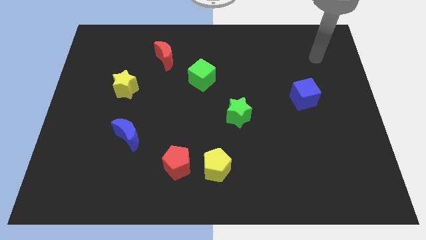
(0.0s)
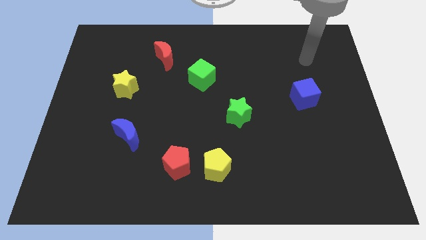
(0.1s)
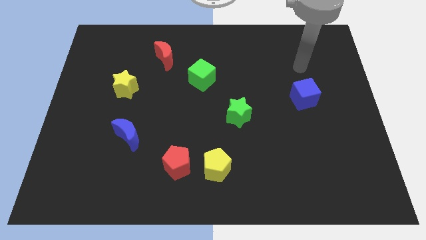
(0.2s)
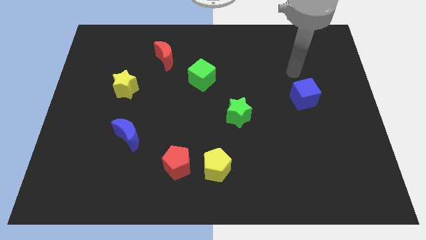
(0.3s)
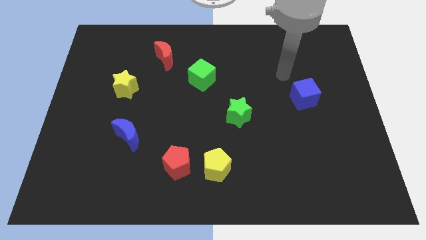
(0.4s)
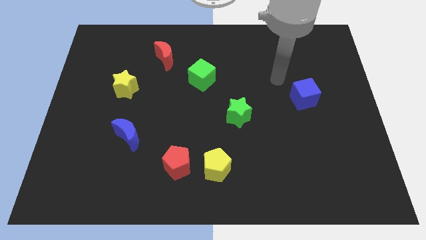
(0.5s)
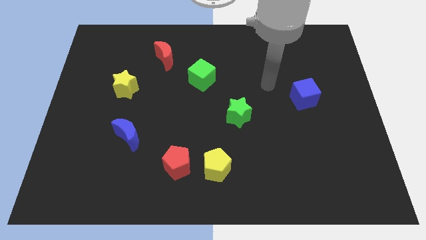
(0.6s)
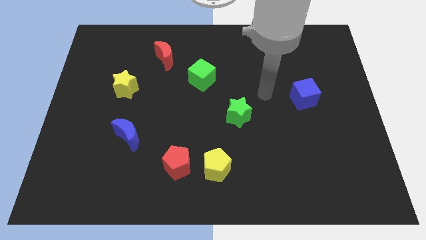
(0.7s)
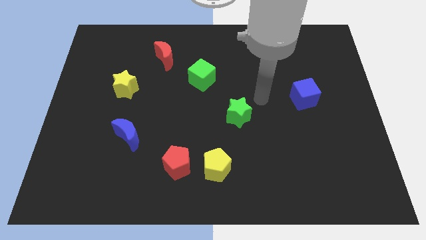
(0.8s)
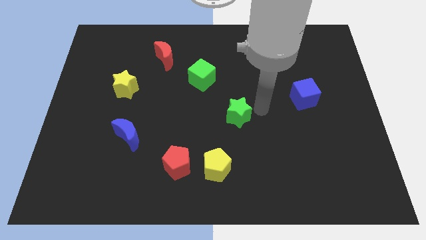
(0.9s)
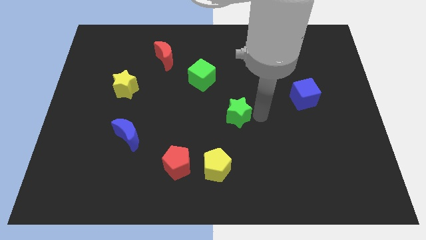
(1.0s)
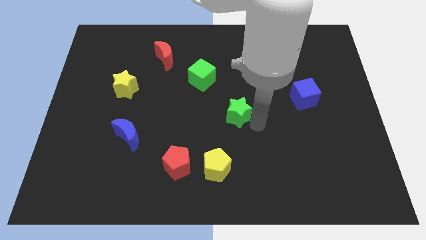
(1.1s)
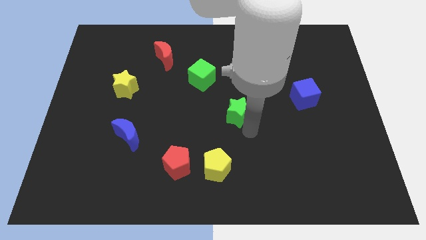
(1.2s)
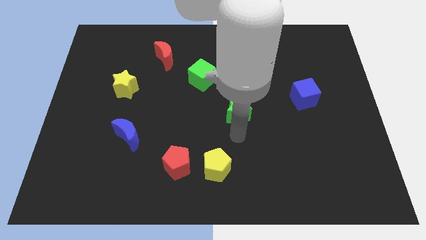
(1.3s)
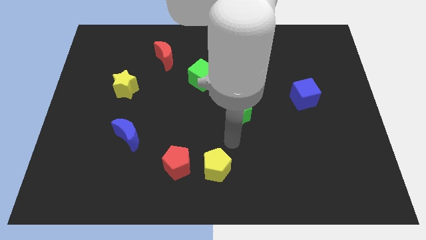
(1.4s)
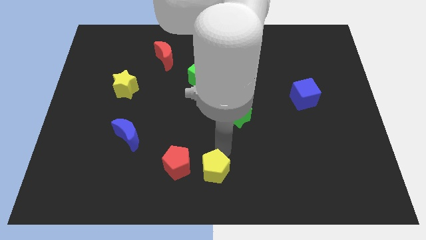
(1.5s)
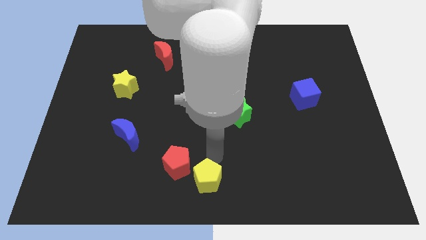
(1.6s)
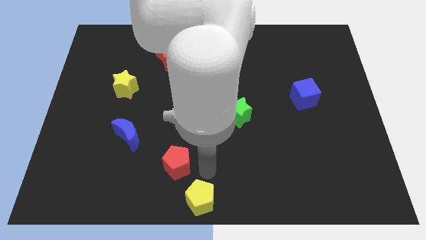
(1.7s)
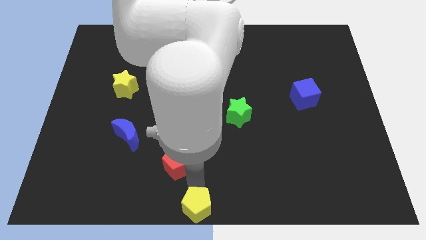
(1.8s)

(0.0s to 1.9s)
separate the red pentagon from the yellow pentagon

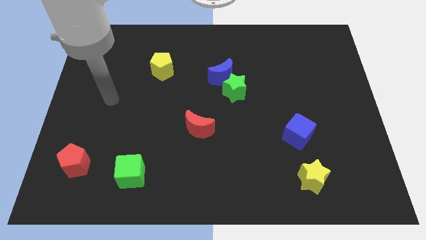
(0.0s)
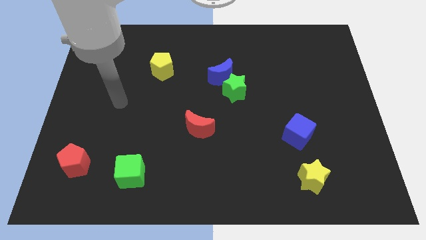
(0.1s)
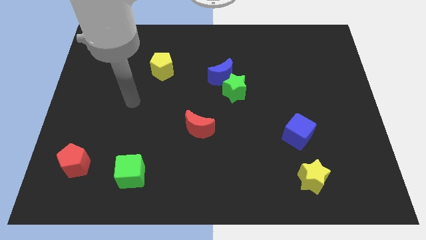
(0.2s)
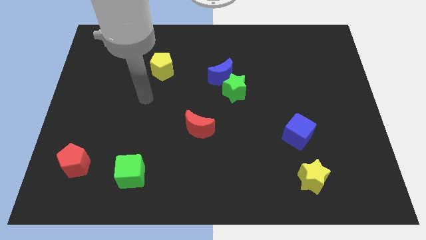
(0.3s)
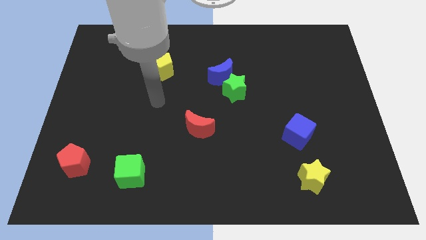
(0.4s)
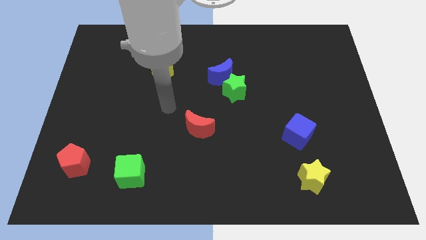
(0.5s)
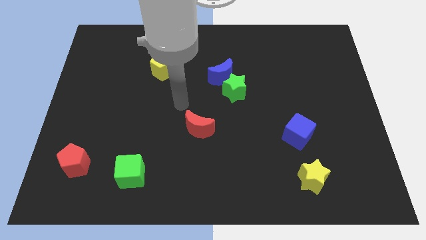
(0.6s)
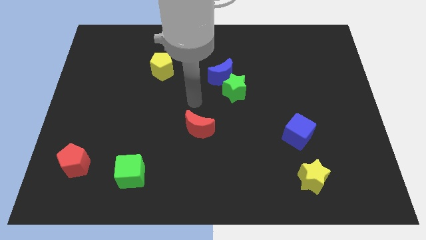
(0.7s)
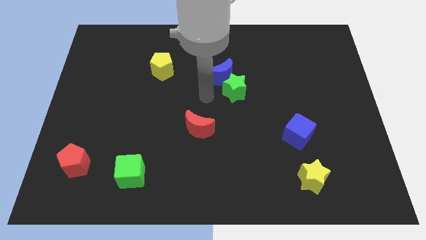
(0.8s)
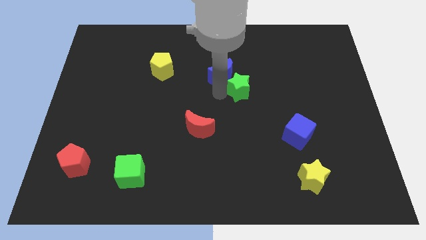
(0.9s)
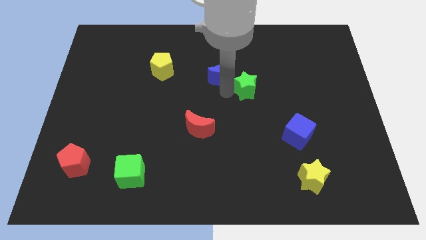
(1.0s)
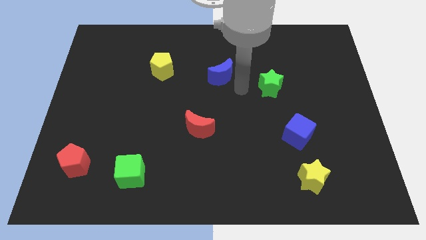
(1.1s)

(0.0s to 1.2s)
move the blue moon away from the green star

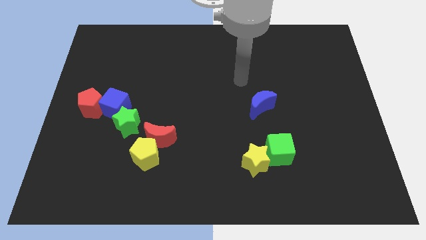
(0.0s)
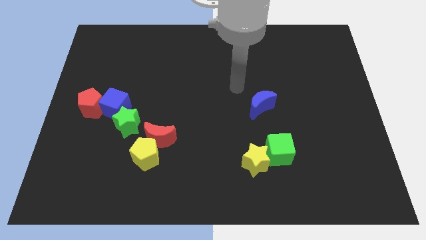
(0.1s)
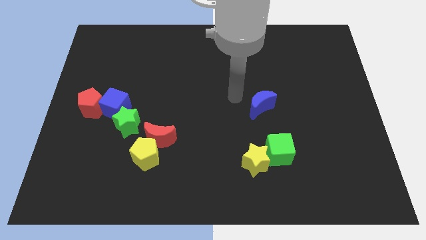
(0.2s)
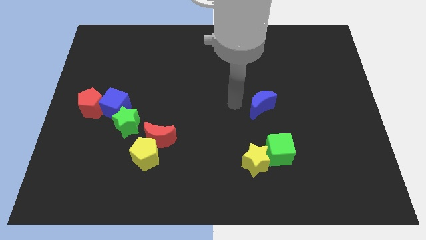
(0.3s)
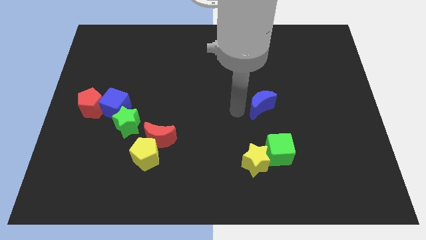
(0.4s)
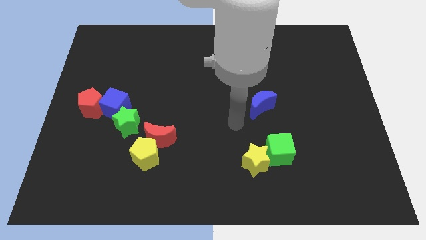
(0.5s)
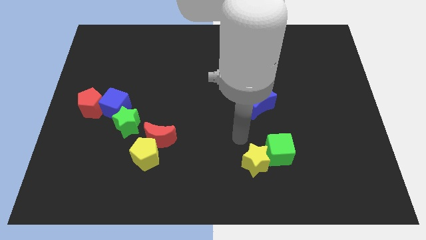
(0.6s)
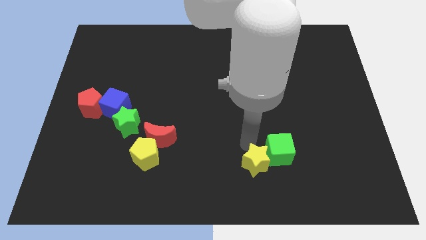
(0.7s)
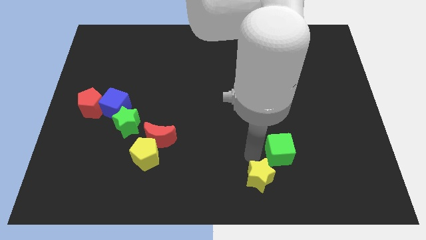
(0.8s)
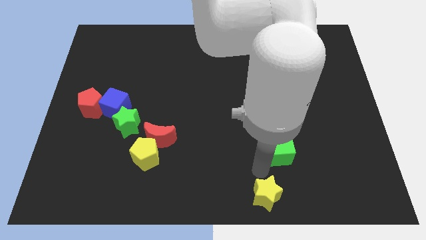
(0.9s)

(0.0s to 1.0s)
pull the green cube apart from the yellow star

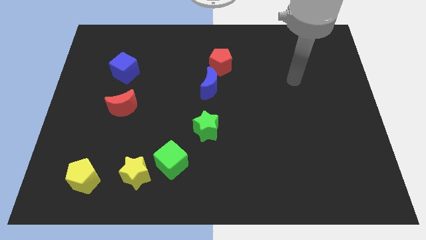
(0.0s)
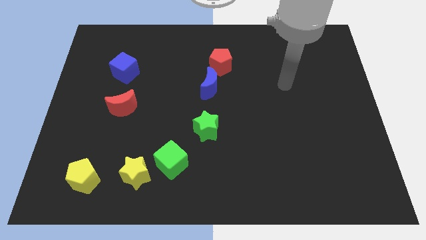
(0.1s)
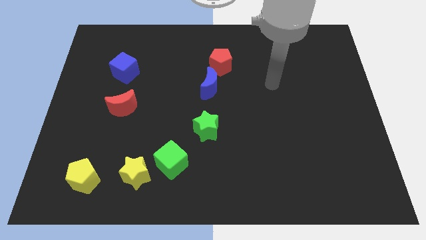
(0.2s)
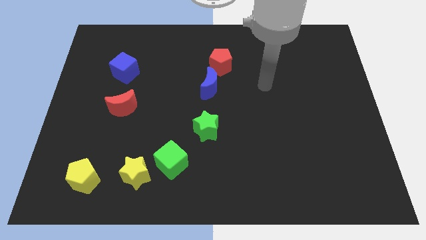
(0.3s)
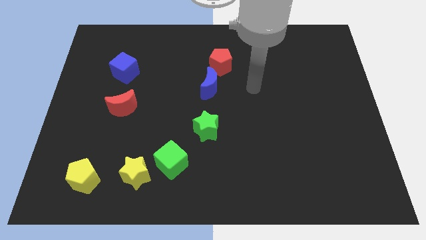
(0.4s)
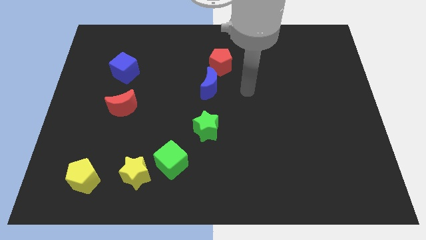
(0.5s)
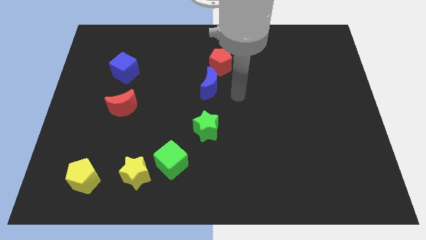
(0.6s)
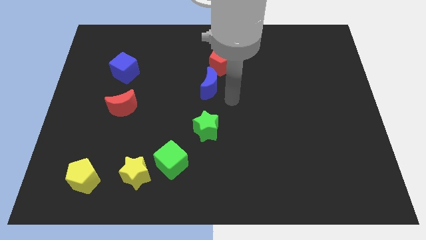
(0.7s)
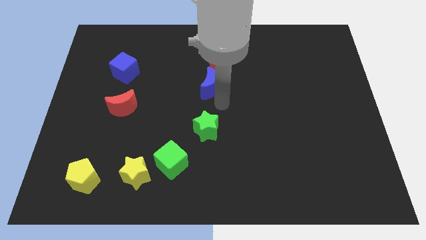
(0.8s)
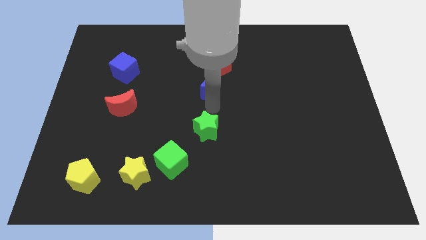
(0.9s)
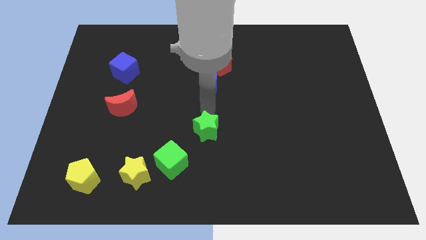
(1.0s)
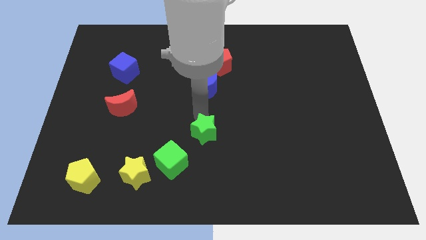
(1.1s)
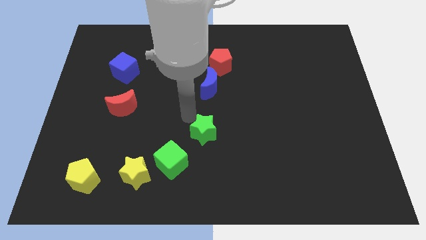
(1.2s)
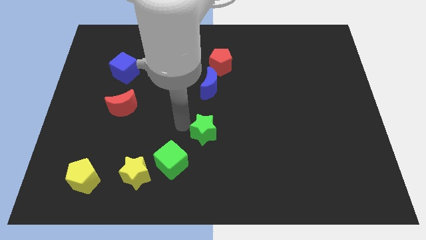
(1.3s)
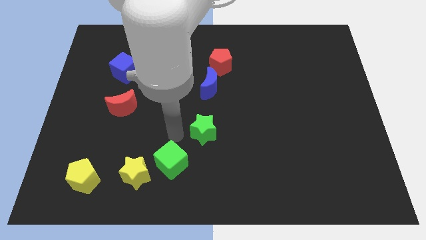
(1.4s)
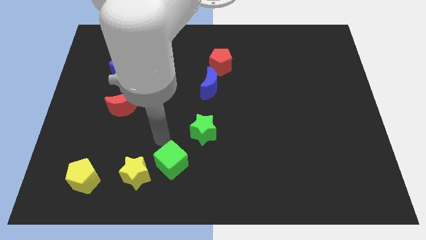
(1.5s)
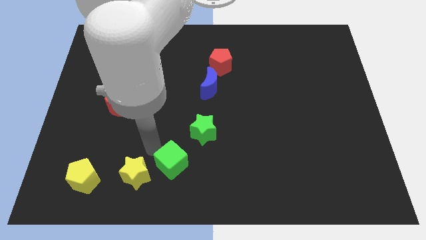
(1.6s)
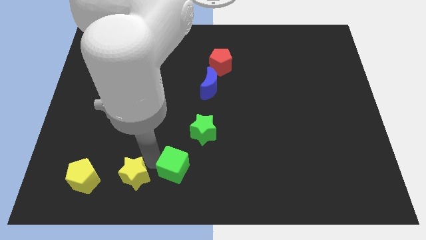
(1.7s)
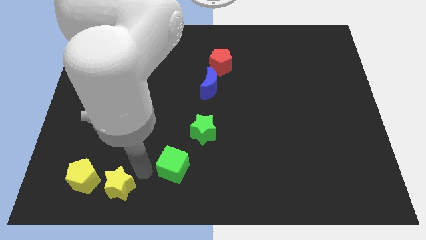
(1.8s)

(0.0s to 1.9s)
move the green cube away from the yellow star

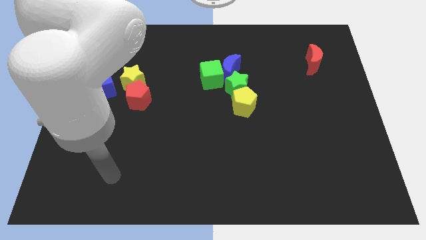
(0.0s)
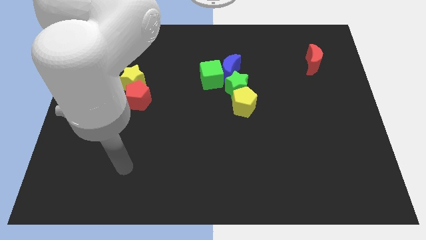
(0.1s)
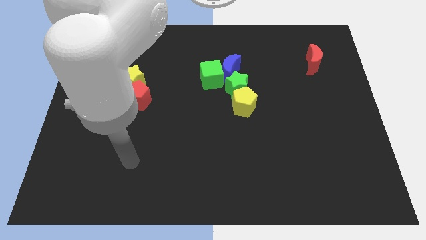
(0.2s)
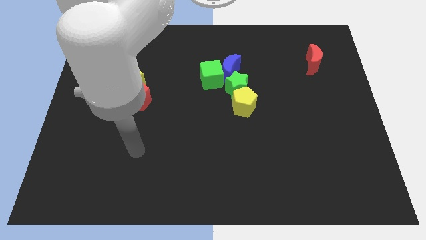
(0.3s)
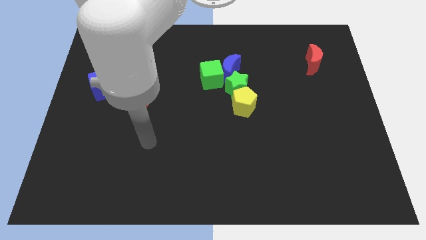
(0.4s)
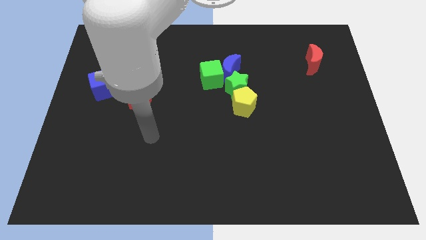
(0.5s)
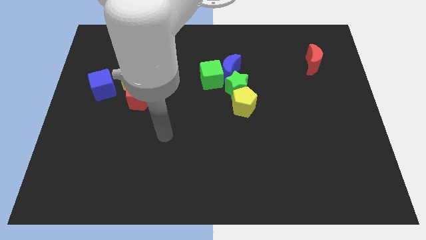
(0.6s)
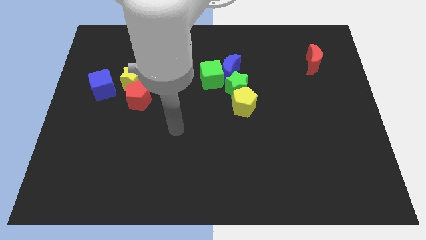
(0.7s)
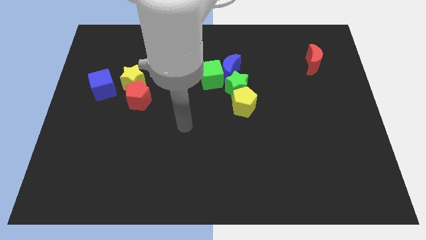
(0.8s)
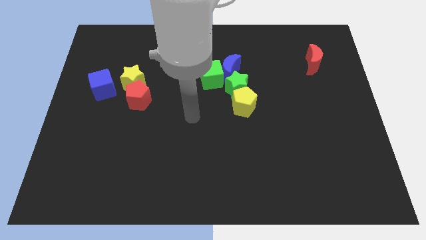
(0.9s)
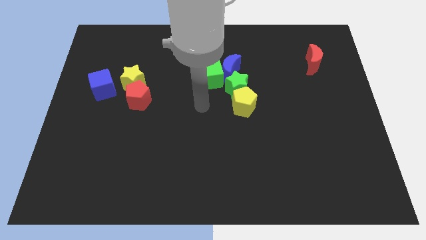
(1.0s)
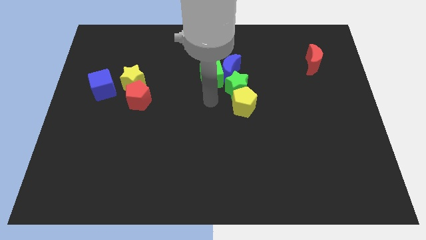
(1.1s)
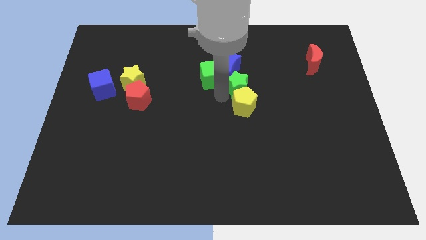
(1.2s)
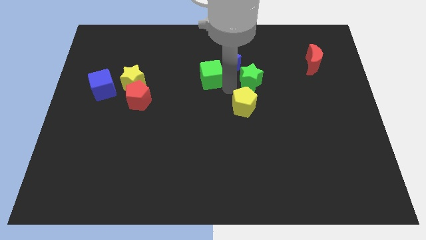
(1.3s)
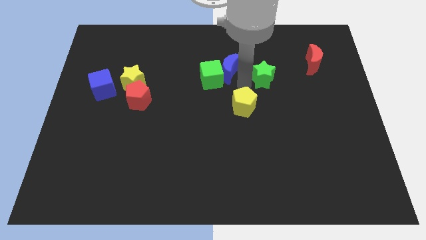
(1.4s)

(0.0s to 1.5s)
move the yellow pentagon away from the green star

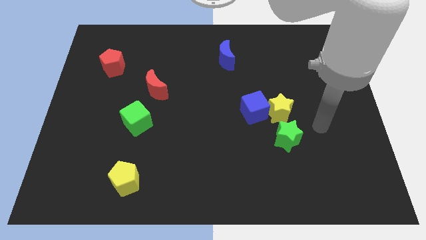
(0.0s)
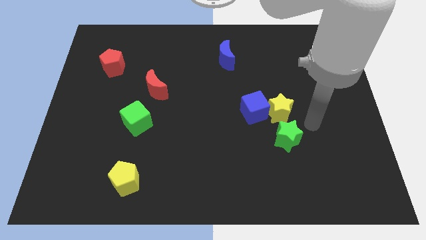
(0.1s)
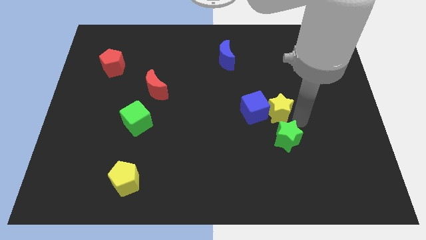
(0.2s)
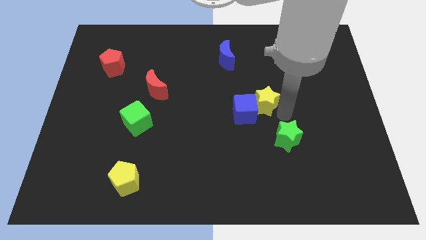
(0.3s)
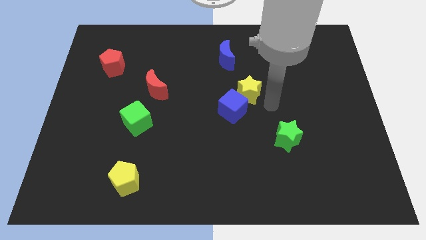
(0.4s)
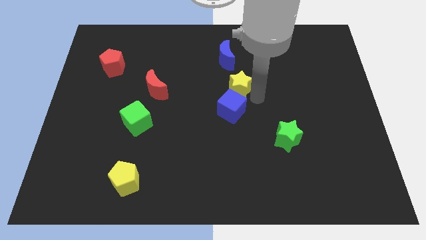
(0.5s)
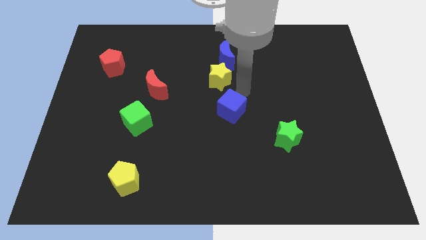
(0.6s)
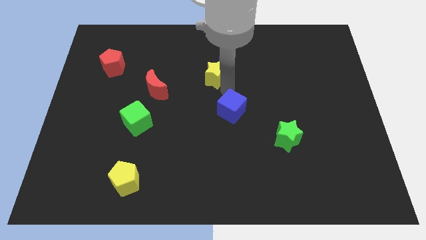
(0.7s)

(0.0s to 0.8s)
pull the blue cube apart from the yellow star

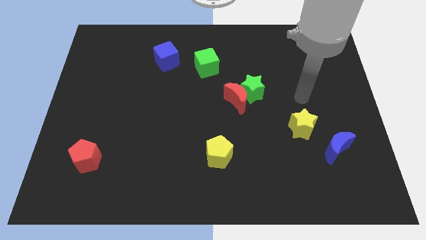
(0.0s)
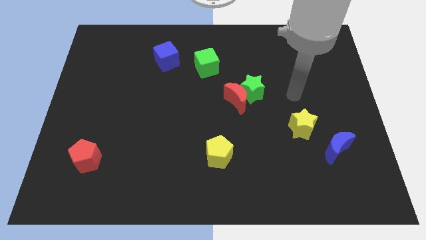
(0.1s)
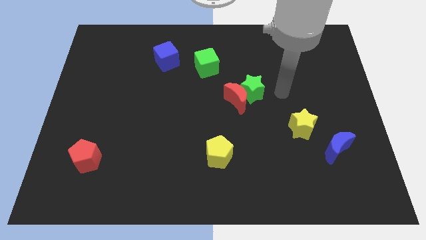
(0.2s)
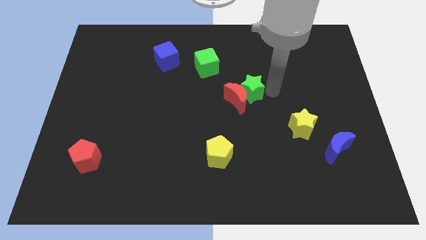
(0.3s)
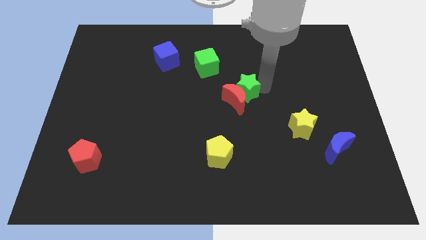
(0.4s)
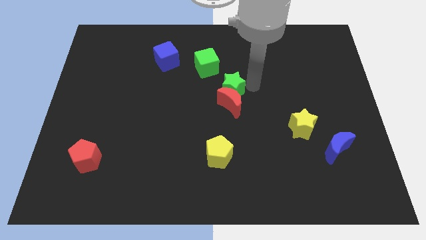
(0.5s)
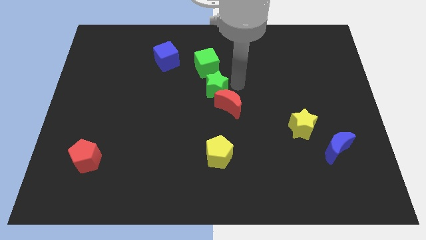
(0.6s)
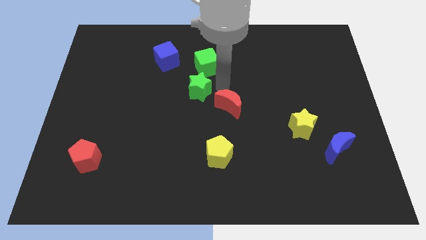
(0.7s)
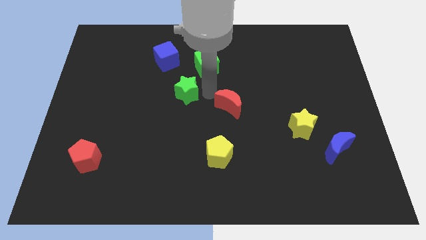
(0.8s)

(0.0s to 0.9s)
separate the red moon from the green star

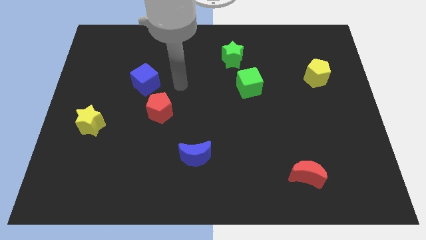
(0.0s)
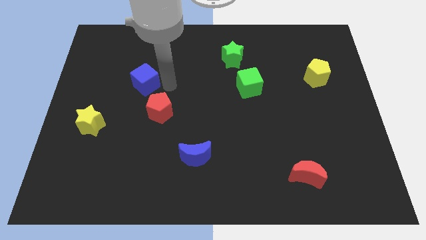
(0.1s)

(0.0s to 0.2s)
move the red pentagon away from the blue cube
